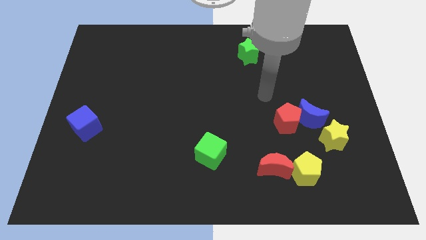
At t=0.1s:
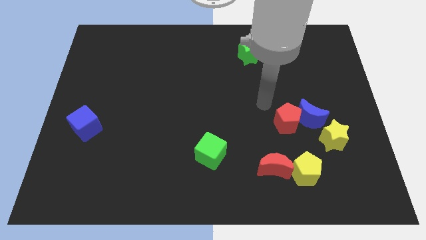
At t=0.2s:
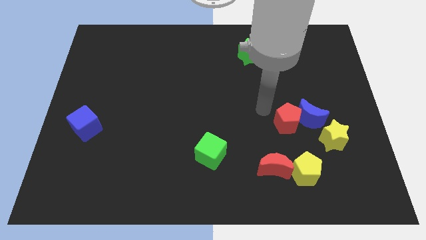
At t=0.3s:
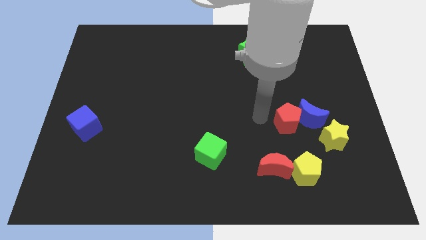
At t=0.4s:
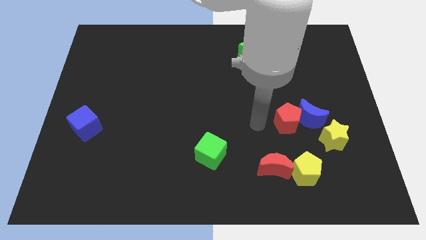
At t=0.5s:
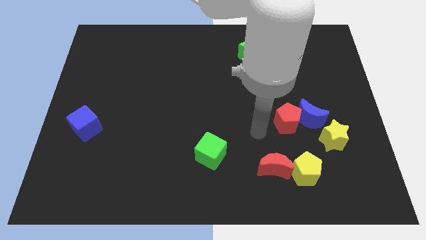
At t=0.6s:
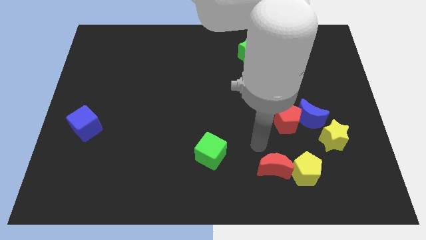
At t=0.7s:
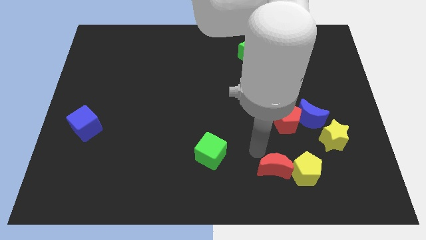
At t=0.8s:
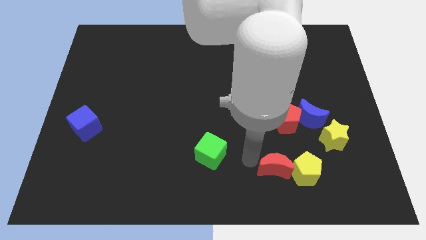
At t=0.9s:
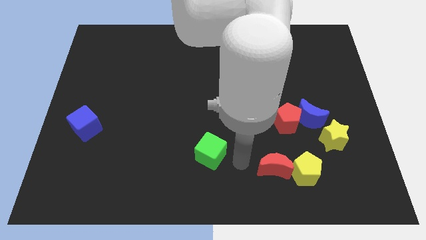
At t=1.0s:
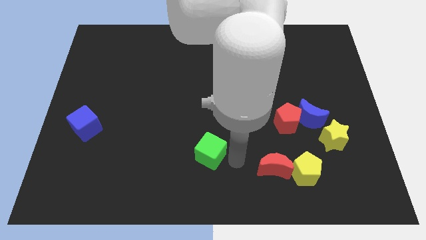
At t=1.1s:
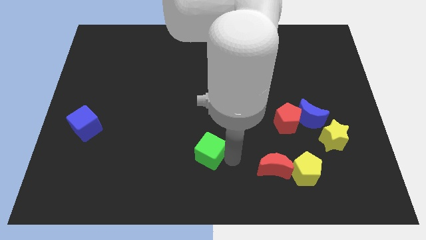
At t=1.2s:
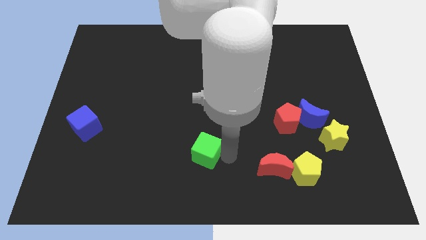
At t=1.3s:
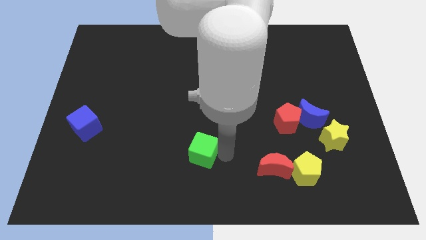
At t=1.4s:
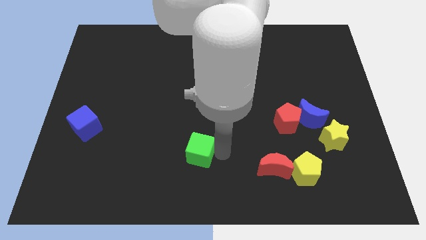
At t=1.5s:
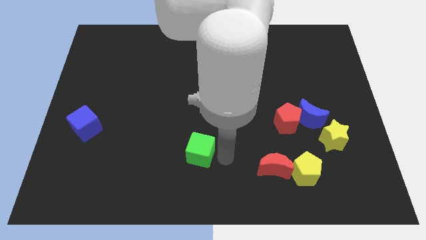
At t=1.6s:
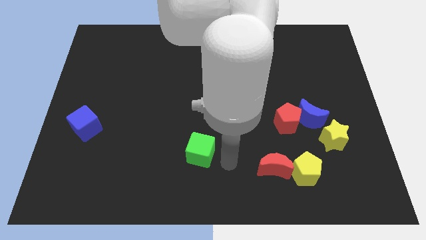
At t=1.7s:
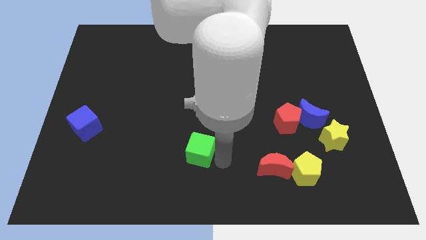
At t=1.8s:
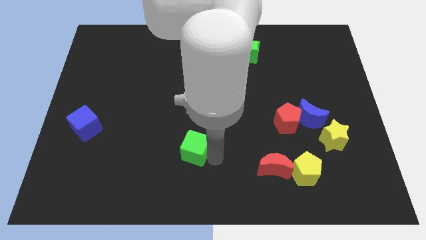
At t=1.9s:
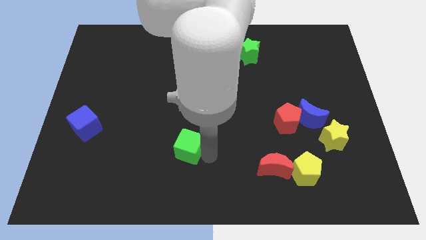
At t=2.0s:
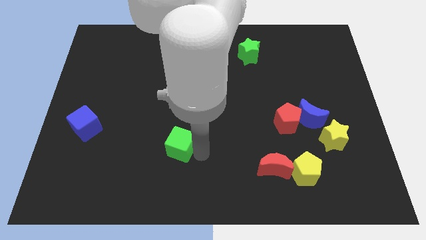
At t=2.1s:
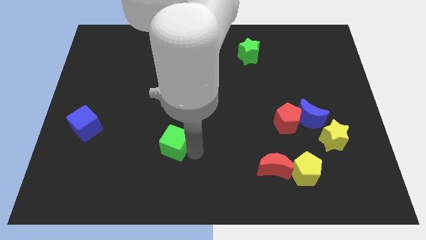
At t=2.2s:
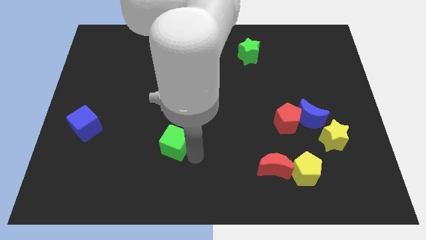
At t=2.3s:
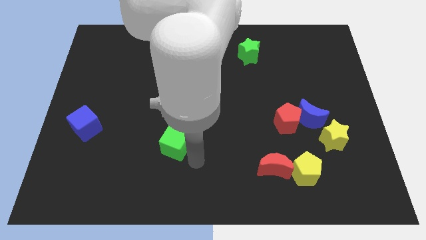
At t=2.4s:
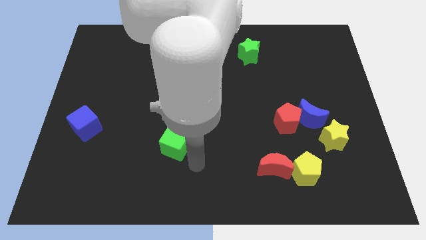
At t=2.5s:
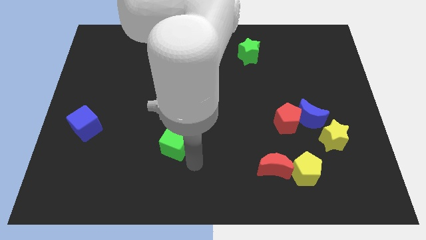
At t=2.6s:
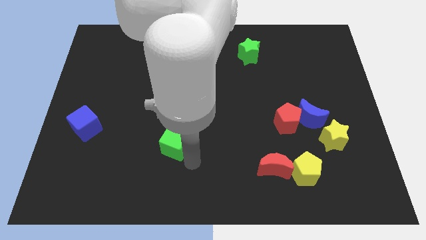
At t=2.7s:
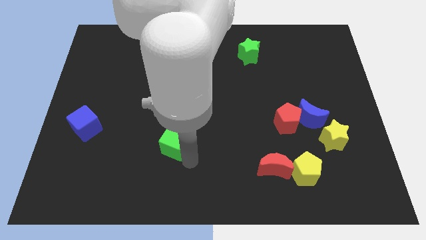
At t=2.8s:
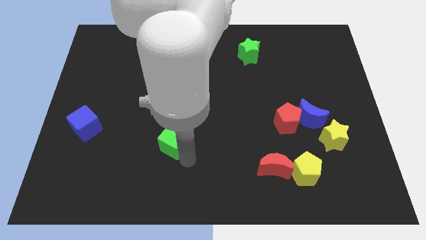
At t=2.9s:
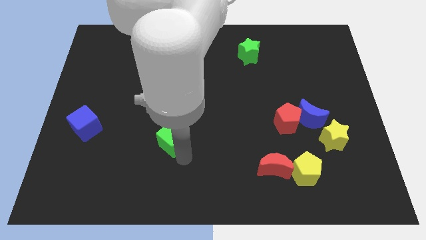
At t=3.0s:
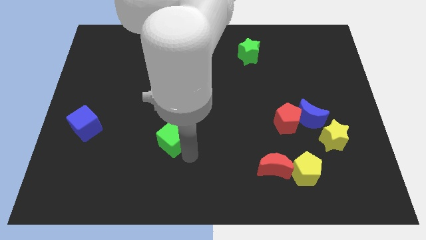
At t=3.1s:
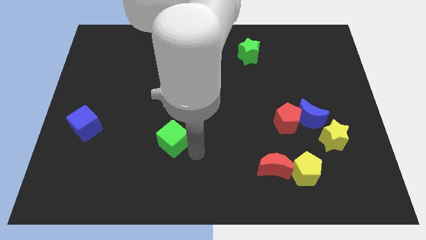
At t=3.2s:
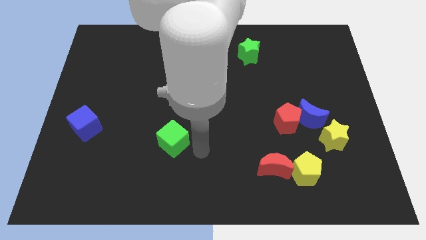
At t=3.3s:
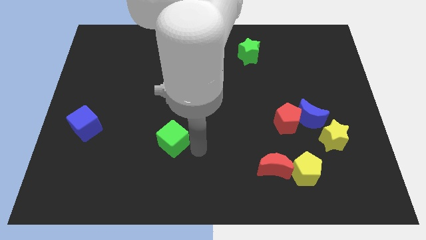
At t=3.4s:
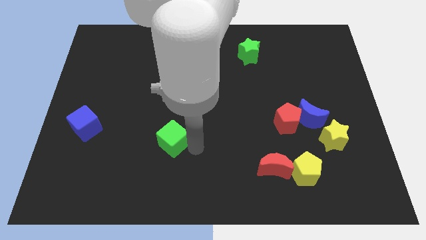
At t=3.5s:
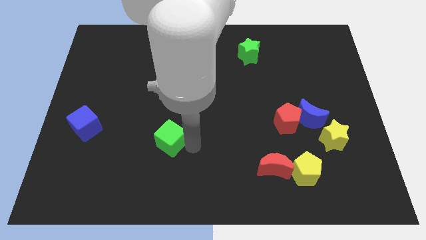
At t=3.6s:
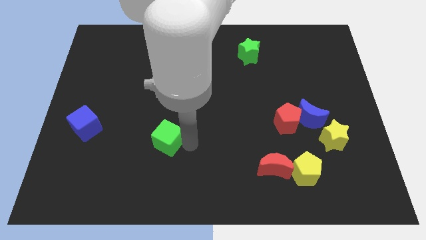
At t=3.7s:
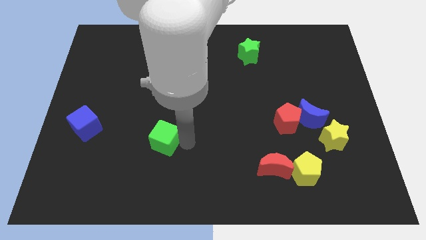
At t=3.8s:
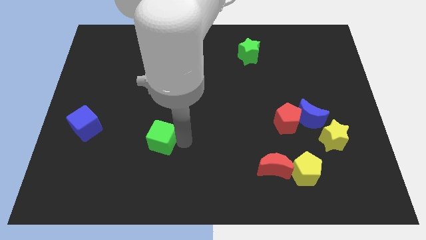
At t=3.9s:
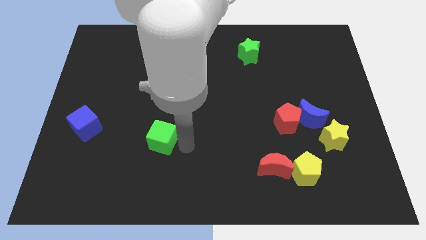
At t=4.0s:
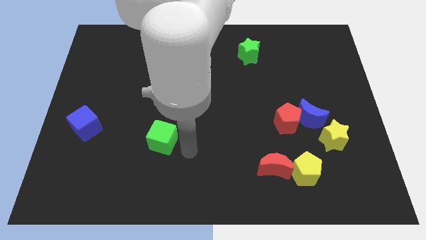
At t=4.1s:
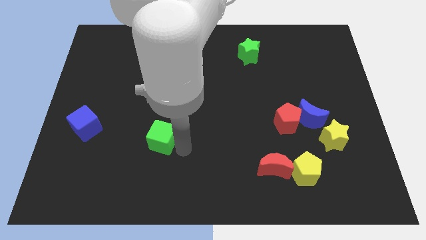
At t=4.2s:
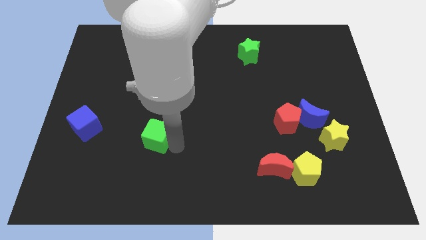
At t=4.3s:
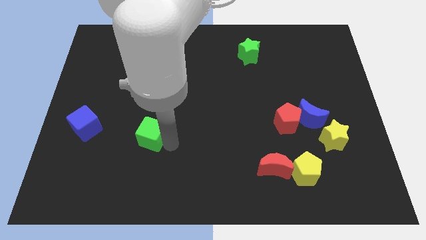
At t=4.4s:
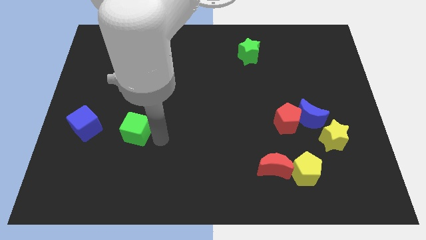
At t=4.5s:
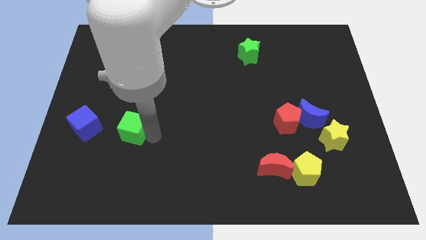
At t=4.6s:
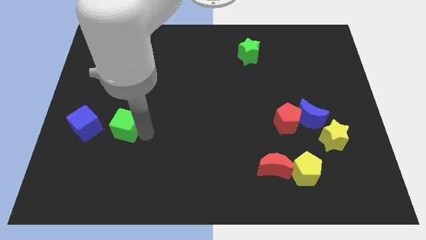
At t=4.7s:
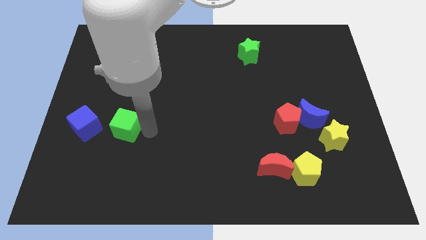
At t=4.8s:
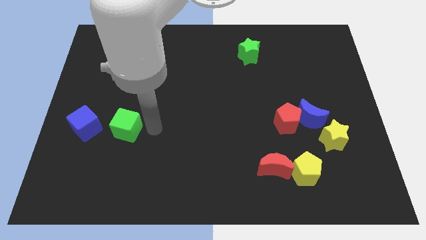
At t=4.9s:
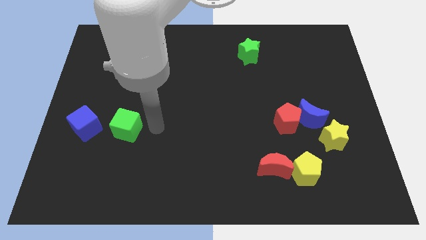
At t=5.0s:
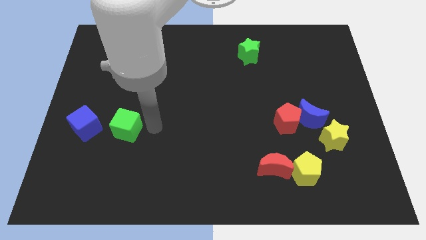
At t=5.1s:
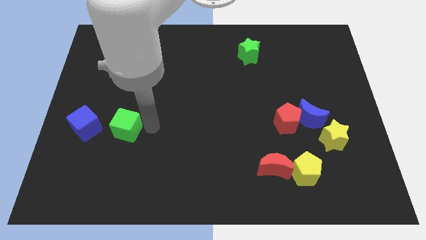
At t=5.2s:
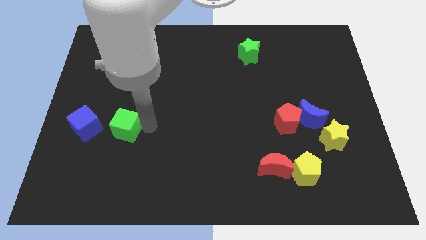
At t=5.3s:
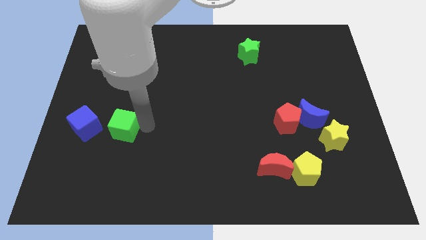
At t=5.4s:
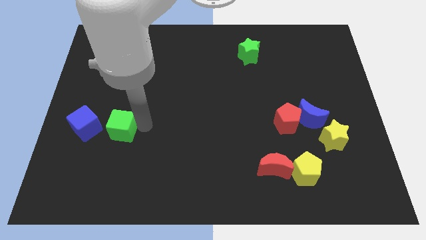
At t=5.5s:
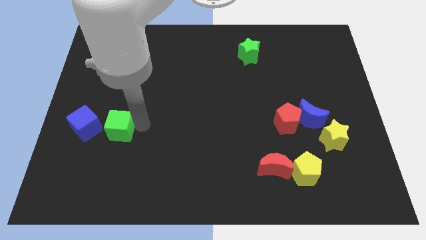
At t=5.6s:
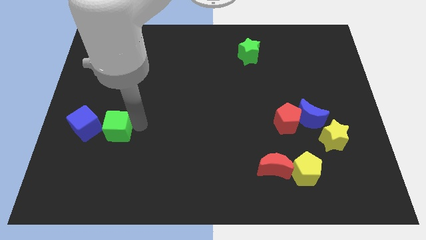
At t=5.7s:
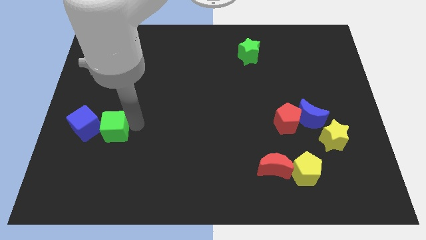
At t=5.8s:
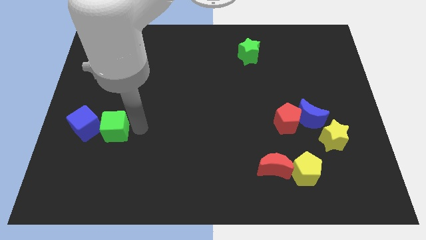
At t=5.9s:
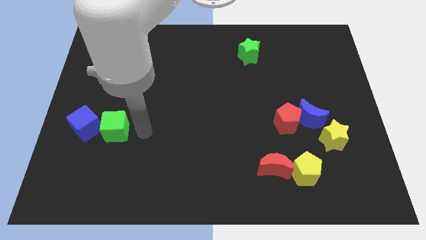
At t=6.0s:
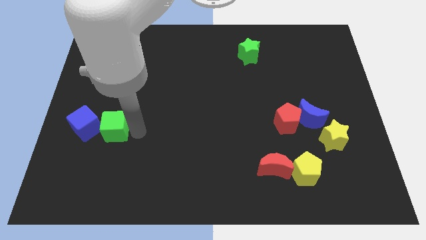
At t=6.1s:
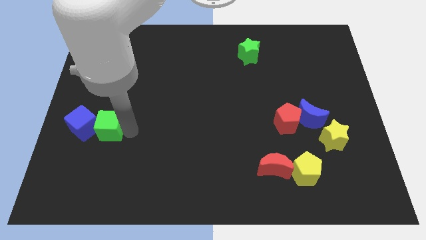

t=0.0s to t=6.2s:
slide the green cube to the blue cube

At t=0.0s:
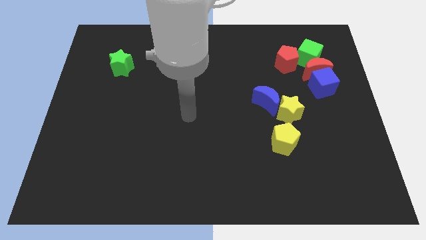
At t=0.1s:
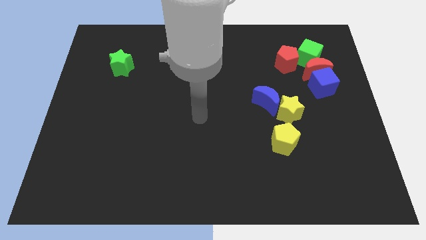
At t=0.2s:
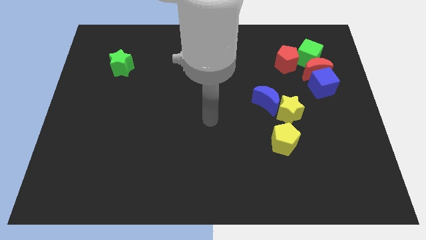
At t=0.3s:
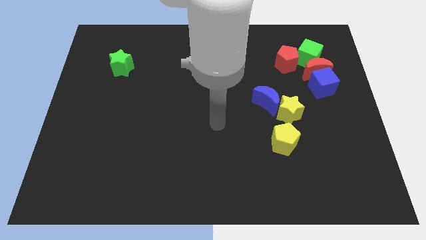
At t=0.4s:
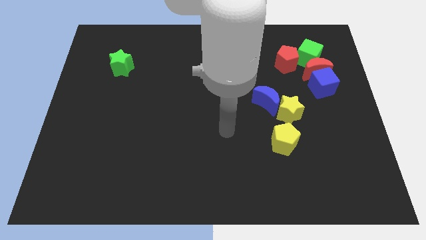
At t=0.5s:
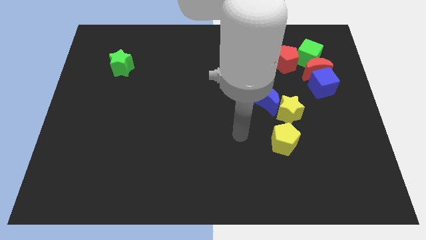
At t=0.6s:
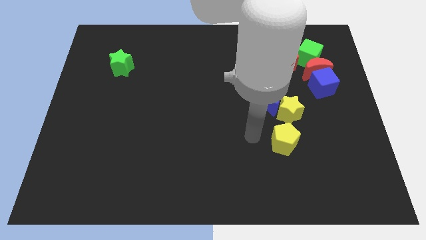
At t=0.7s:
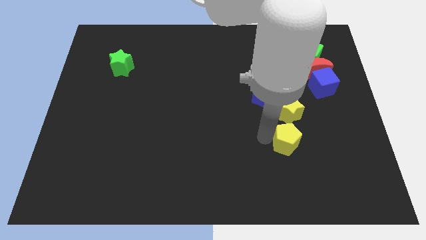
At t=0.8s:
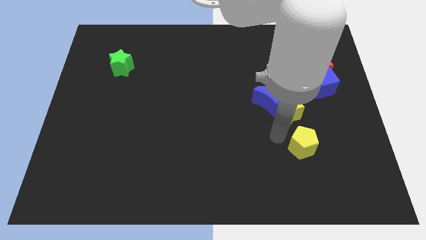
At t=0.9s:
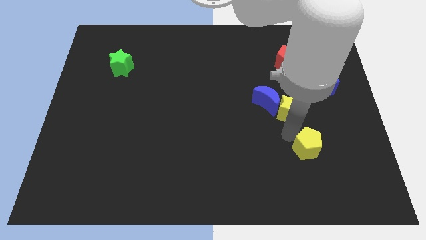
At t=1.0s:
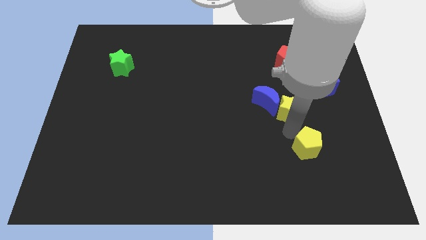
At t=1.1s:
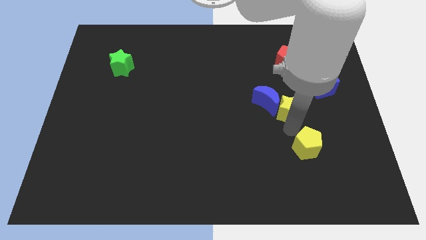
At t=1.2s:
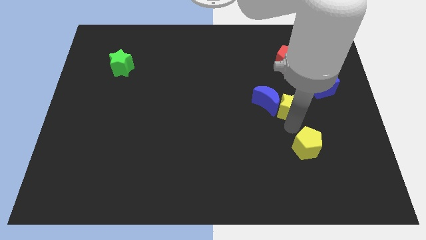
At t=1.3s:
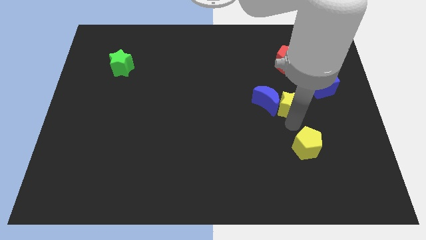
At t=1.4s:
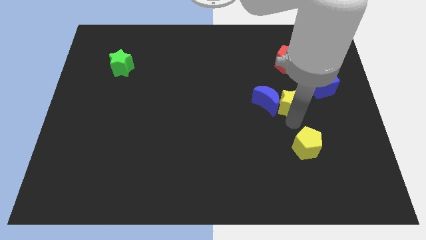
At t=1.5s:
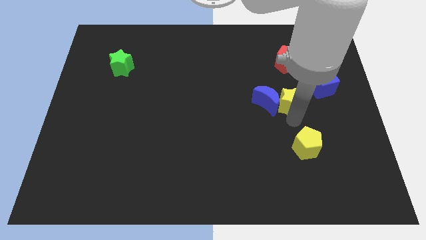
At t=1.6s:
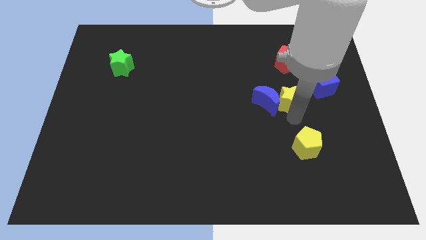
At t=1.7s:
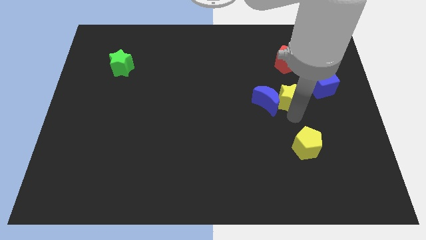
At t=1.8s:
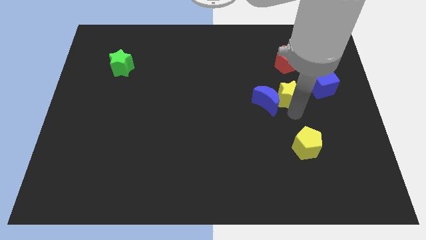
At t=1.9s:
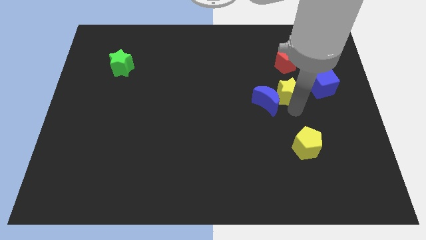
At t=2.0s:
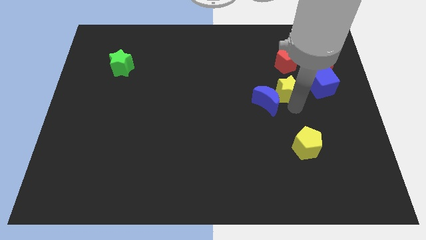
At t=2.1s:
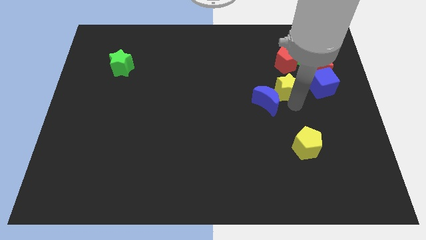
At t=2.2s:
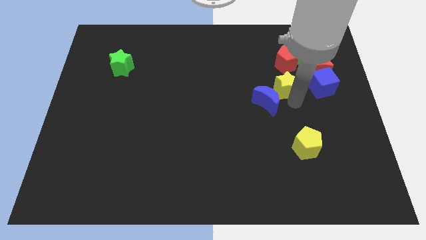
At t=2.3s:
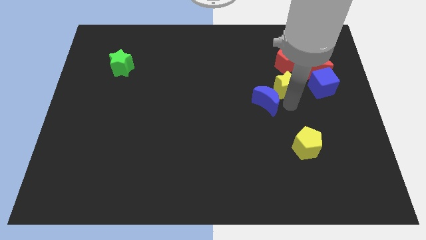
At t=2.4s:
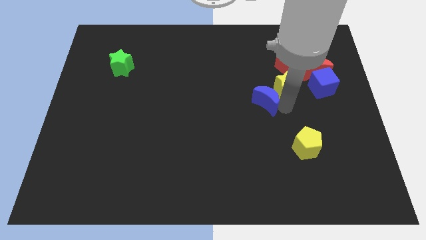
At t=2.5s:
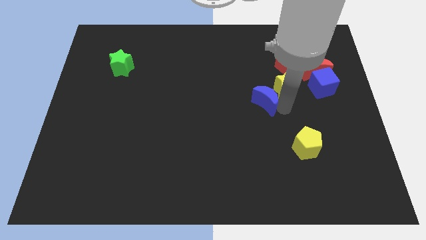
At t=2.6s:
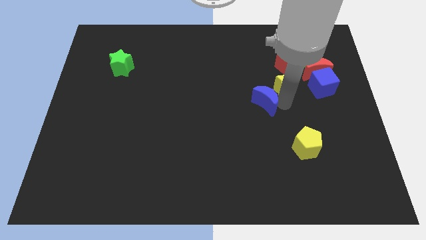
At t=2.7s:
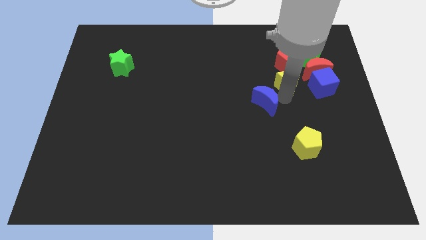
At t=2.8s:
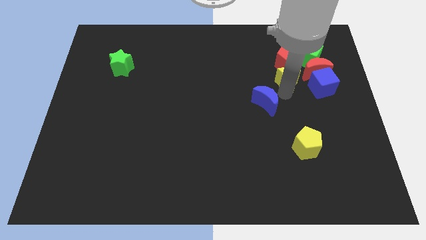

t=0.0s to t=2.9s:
push the yellow star close to the red pentagon
